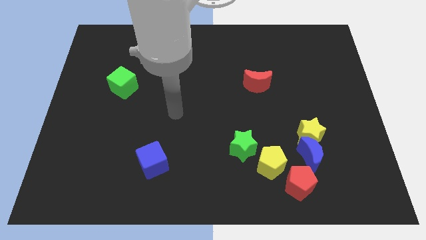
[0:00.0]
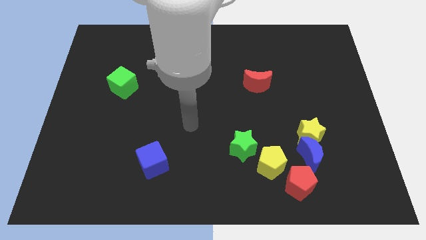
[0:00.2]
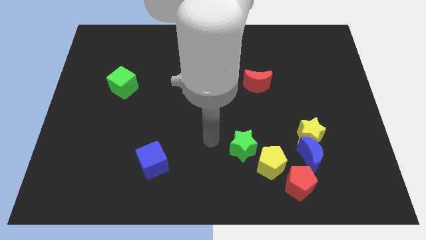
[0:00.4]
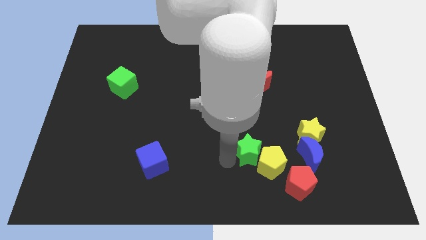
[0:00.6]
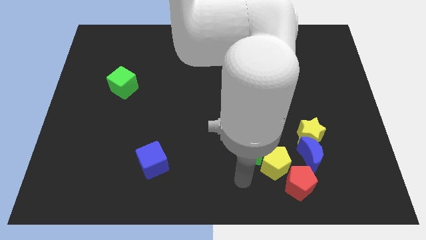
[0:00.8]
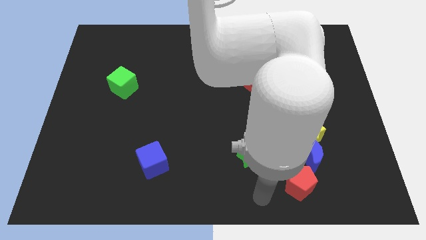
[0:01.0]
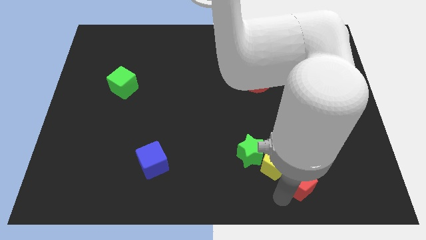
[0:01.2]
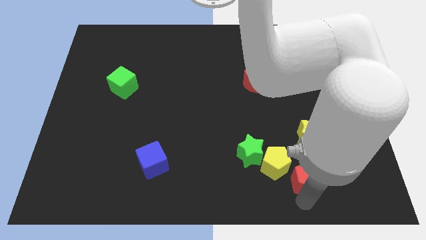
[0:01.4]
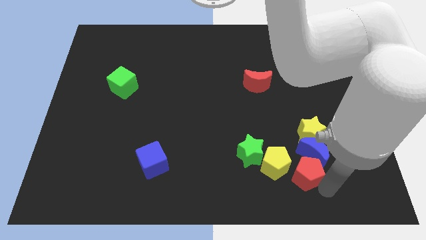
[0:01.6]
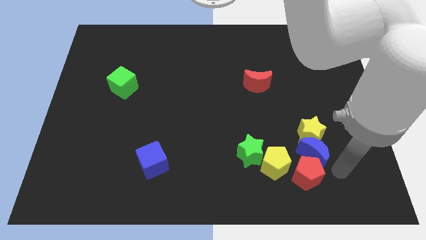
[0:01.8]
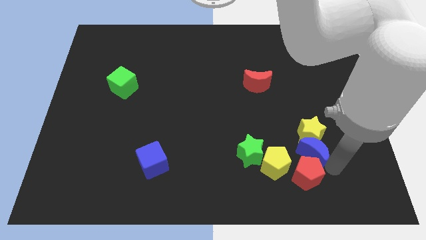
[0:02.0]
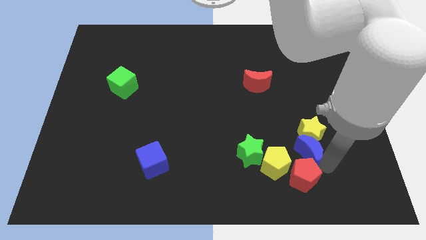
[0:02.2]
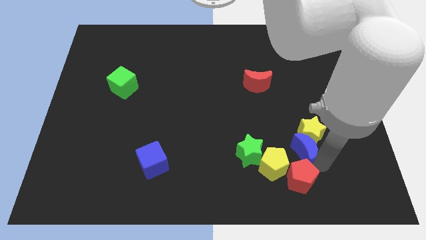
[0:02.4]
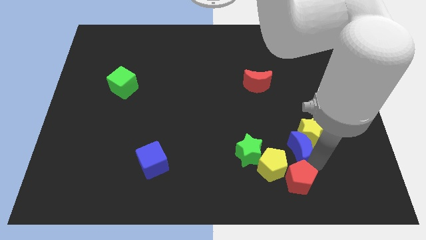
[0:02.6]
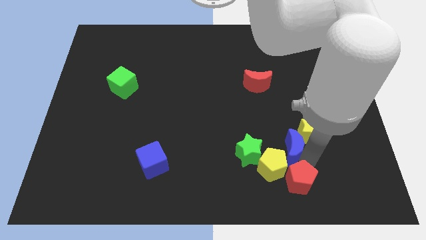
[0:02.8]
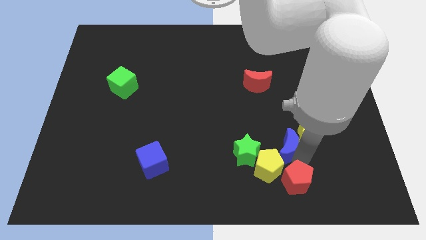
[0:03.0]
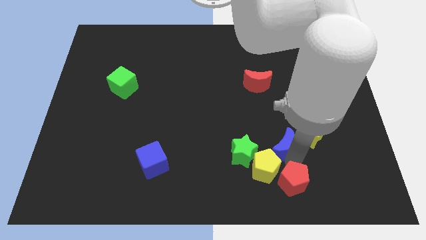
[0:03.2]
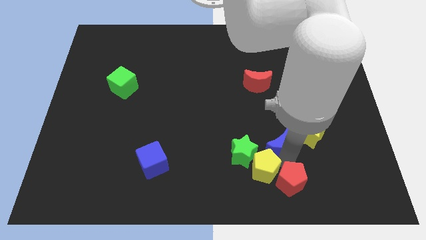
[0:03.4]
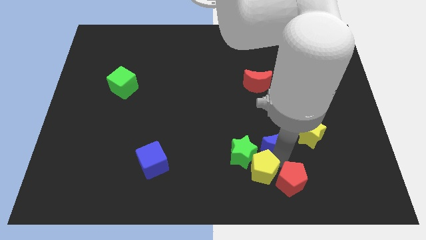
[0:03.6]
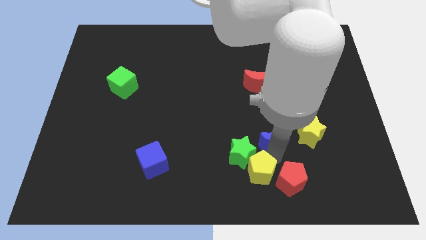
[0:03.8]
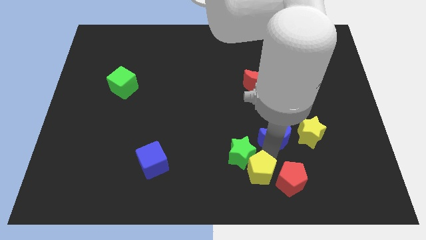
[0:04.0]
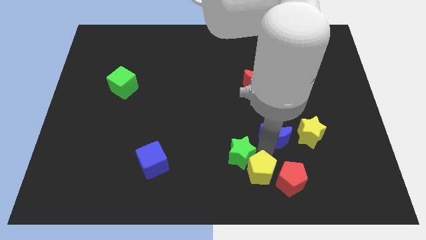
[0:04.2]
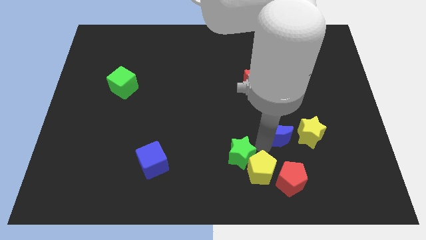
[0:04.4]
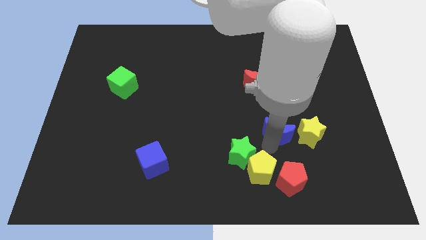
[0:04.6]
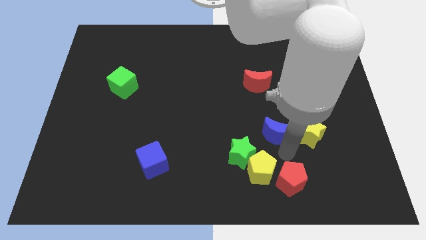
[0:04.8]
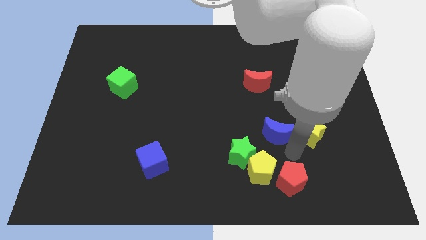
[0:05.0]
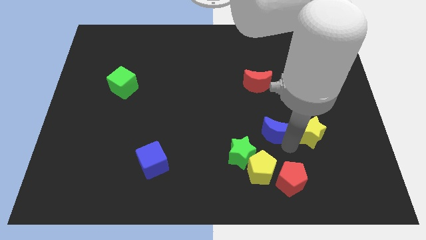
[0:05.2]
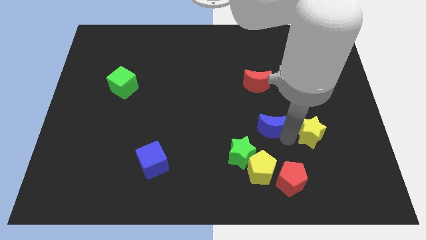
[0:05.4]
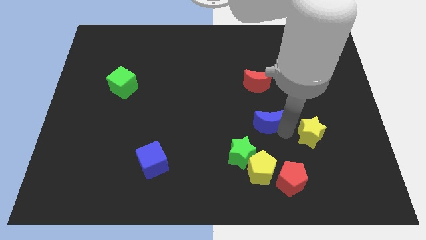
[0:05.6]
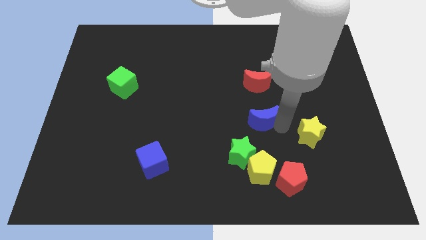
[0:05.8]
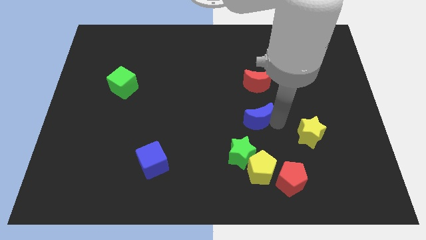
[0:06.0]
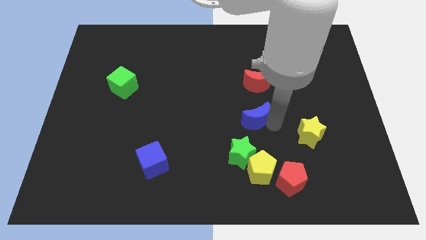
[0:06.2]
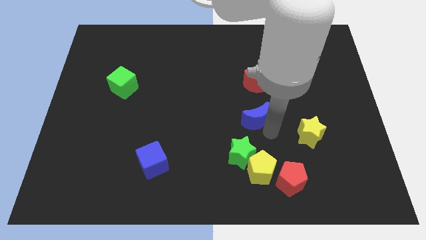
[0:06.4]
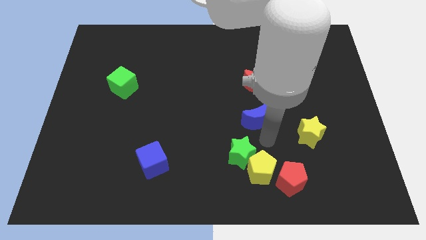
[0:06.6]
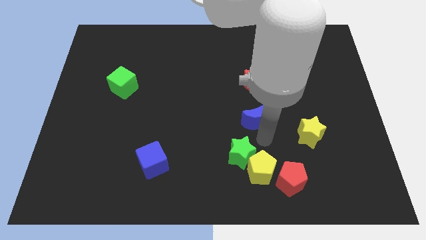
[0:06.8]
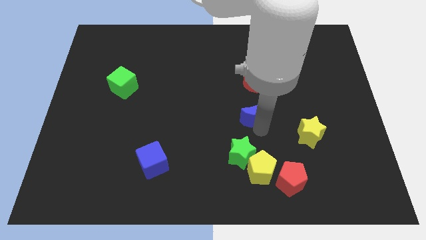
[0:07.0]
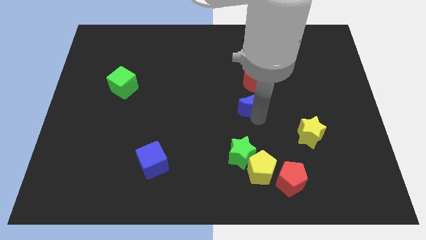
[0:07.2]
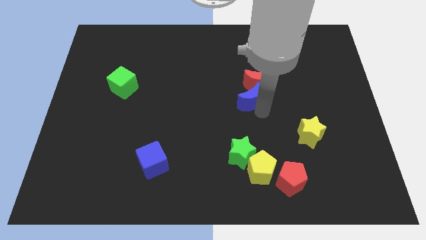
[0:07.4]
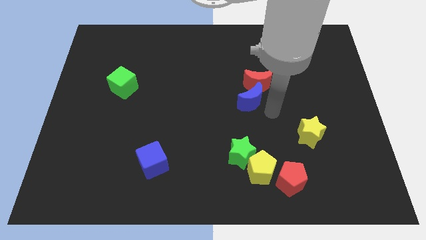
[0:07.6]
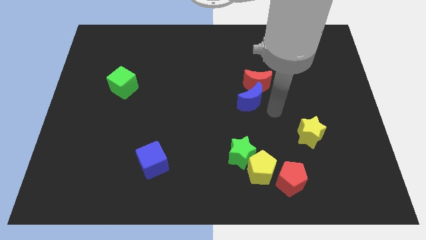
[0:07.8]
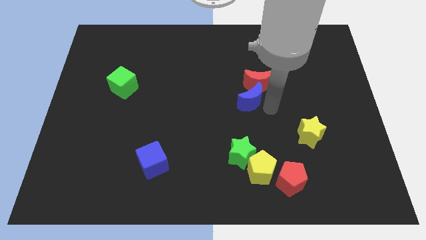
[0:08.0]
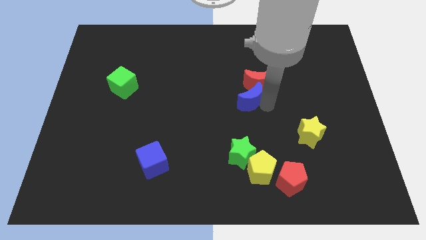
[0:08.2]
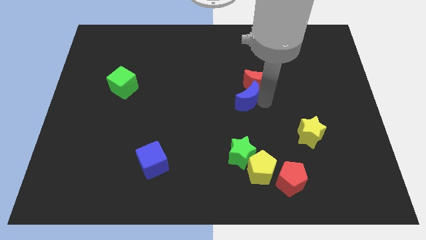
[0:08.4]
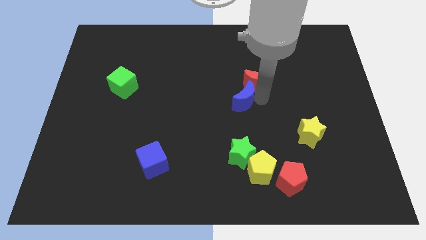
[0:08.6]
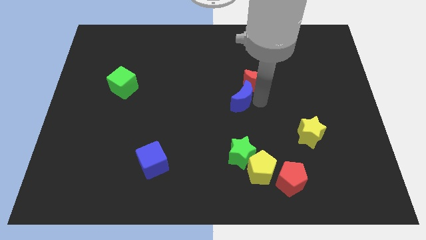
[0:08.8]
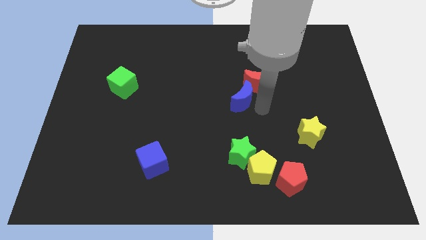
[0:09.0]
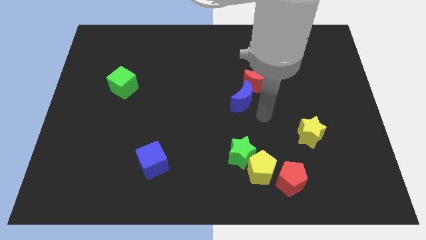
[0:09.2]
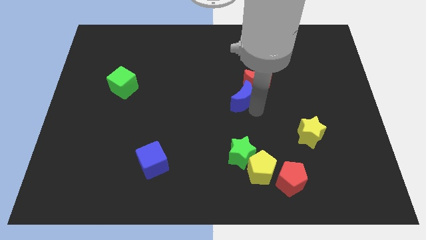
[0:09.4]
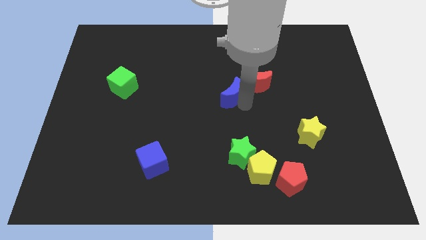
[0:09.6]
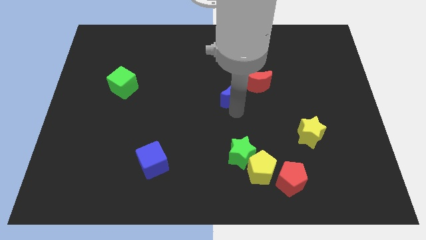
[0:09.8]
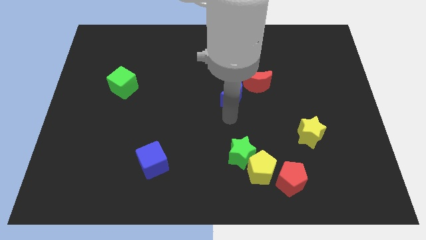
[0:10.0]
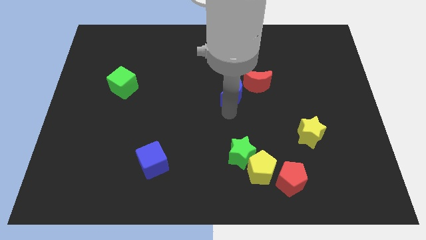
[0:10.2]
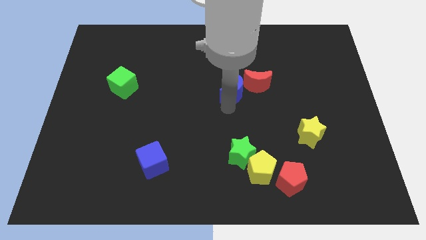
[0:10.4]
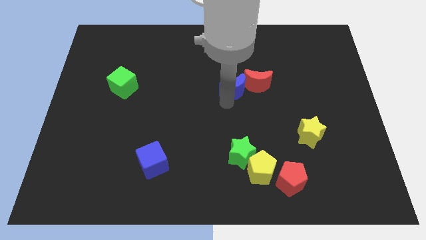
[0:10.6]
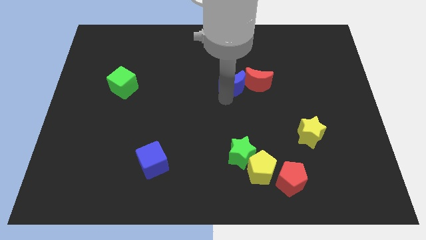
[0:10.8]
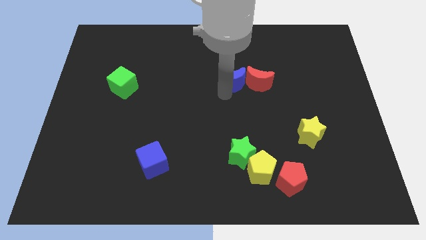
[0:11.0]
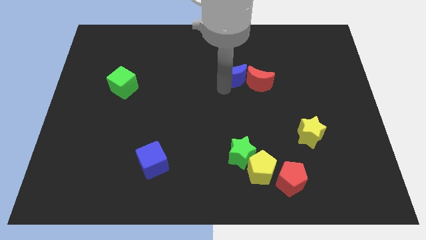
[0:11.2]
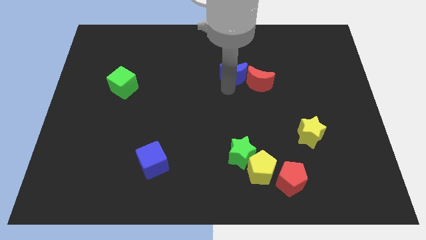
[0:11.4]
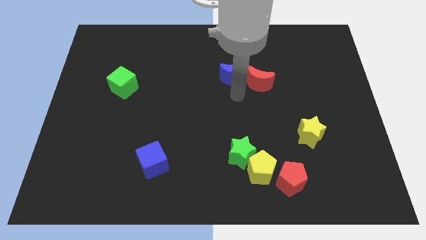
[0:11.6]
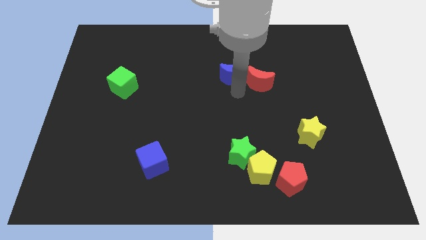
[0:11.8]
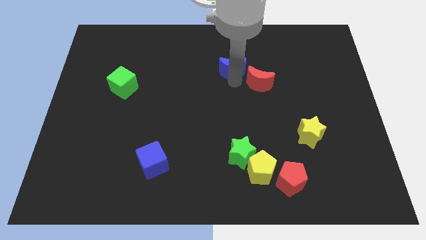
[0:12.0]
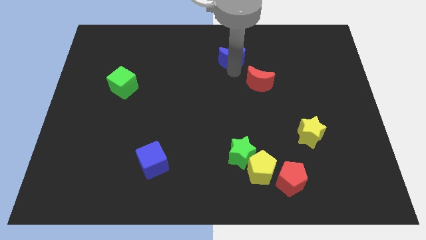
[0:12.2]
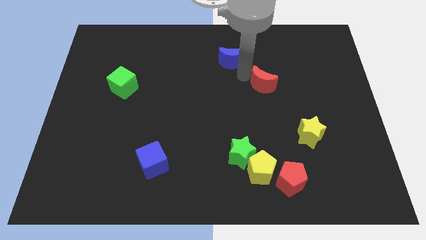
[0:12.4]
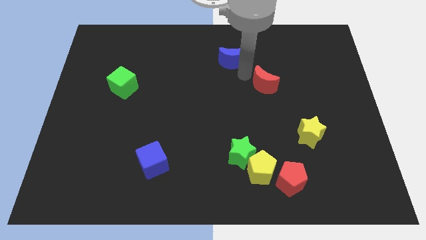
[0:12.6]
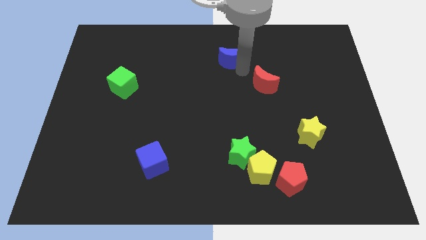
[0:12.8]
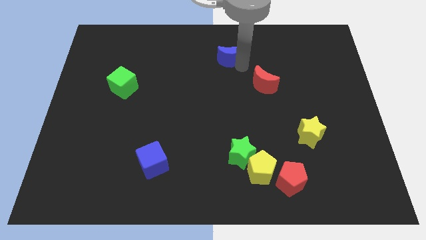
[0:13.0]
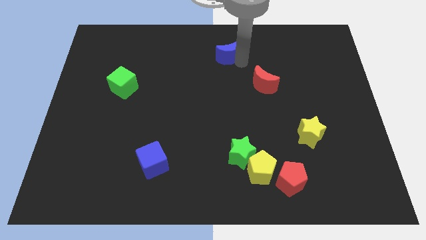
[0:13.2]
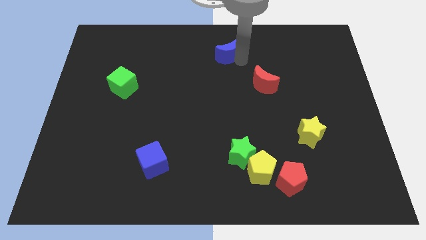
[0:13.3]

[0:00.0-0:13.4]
move the blue moon to the towards your base
